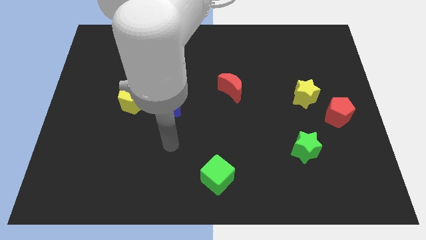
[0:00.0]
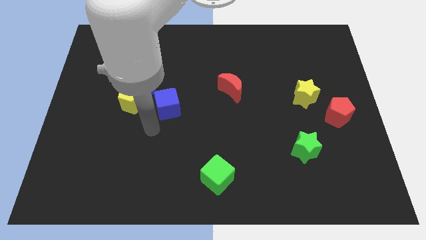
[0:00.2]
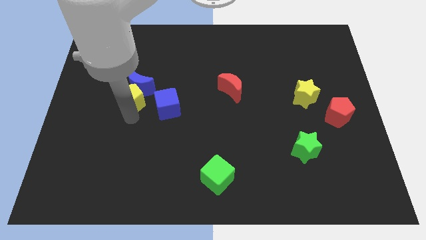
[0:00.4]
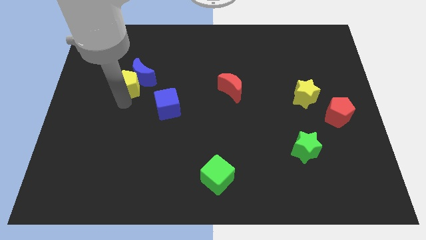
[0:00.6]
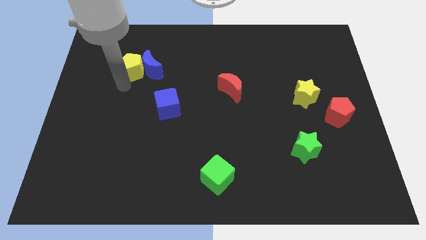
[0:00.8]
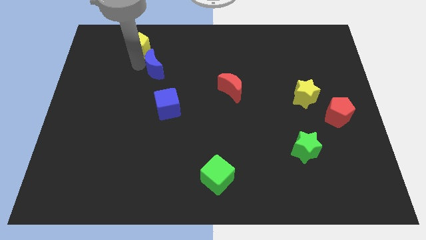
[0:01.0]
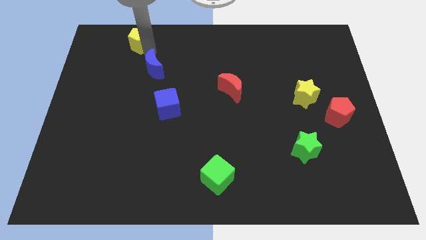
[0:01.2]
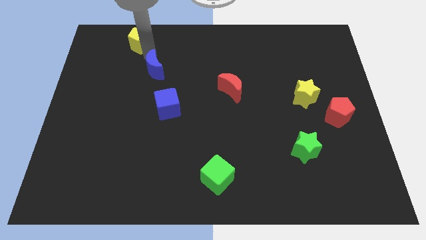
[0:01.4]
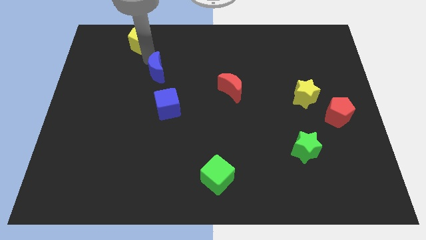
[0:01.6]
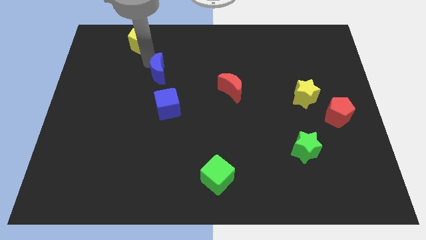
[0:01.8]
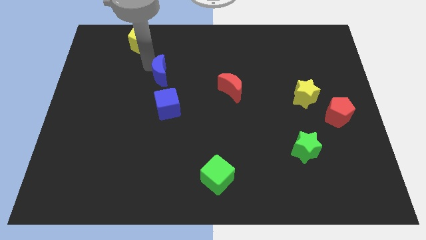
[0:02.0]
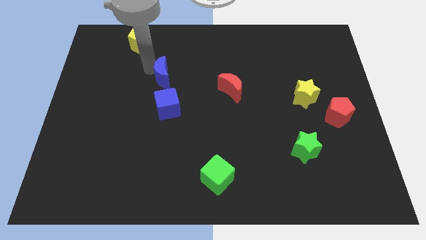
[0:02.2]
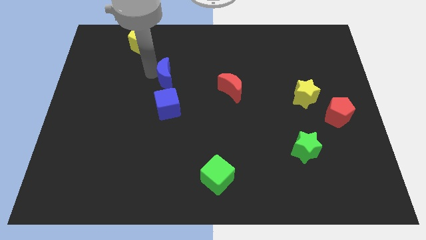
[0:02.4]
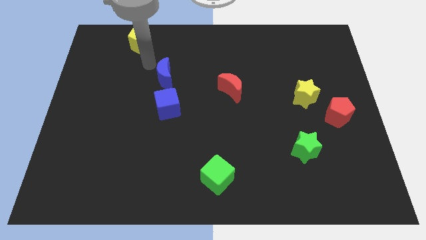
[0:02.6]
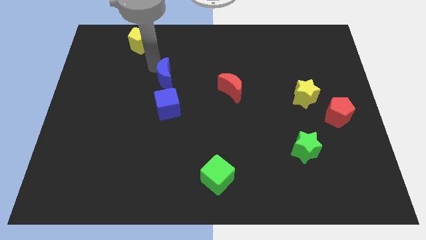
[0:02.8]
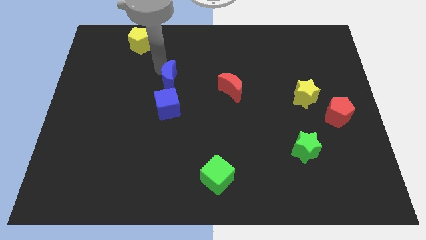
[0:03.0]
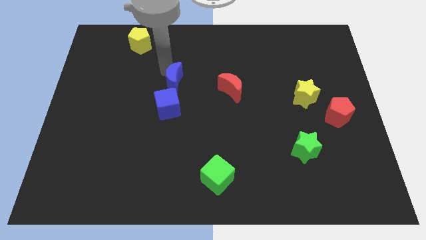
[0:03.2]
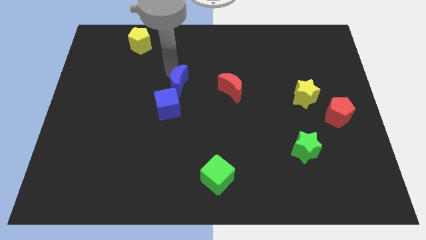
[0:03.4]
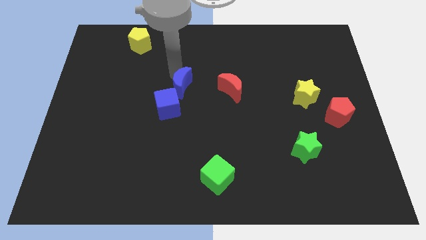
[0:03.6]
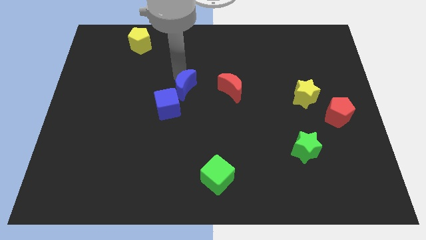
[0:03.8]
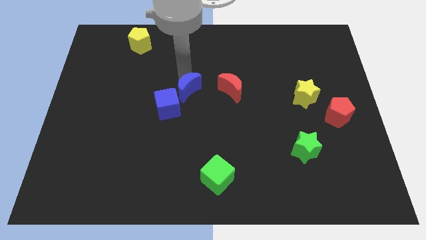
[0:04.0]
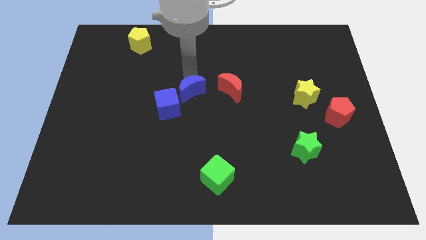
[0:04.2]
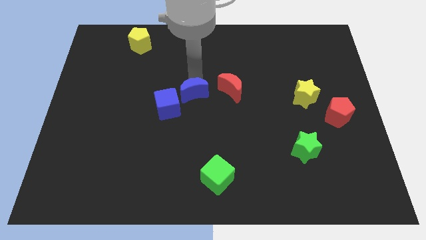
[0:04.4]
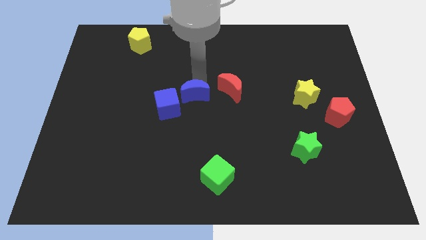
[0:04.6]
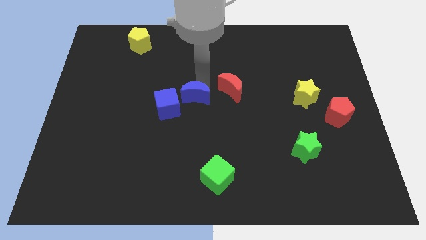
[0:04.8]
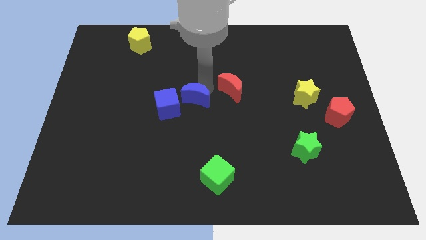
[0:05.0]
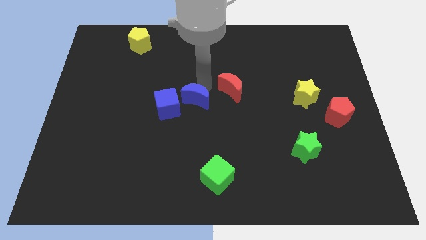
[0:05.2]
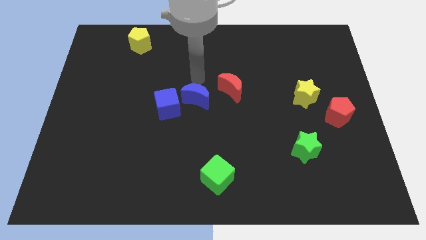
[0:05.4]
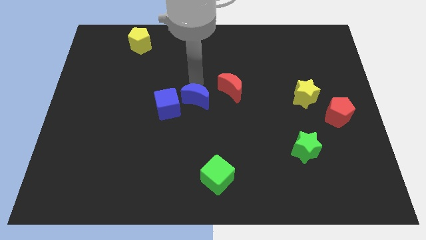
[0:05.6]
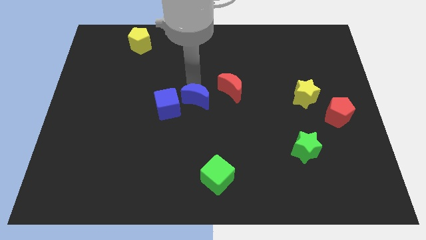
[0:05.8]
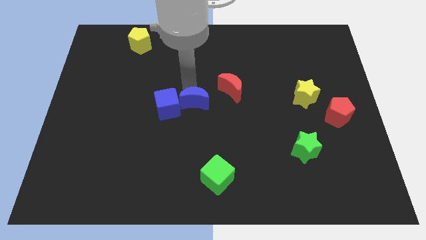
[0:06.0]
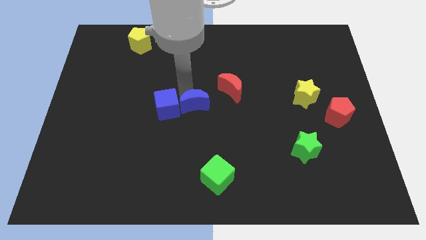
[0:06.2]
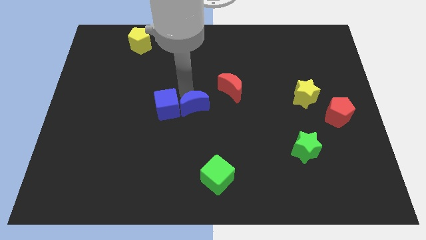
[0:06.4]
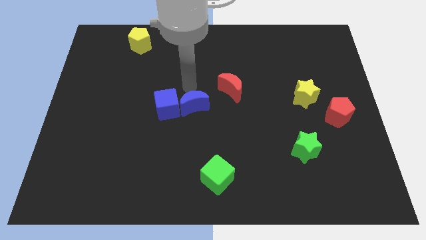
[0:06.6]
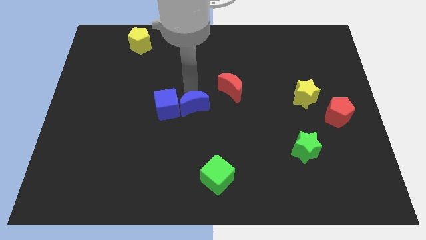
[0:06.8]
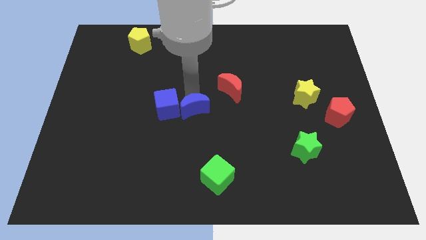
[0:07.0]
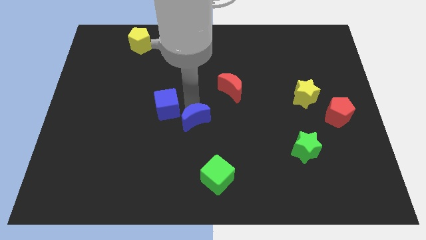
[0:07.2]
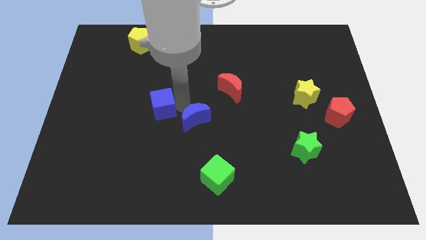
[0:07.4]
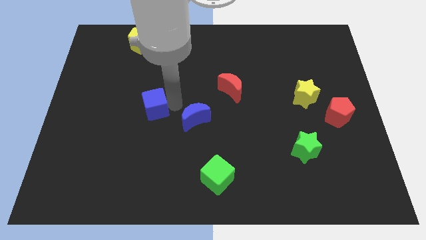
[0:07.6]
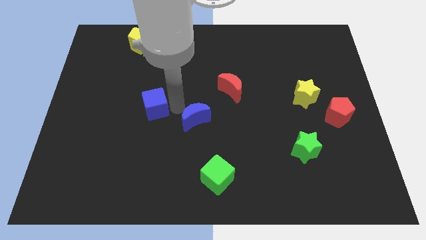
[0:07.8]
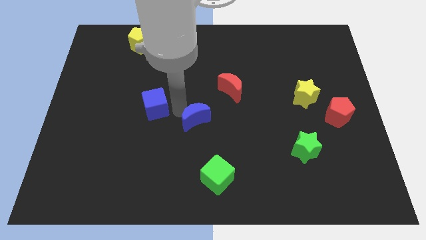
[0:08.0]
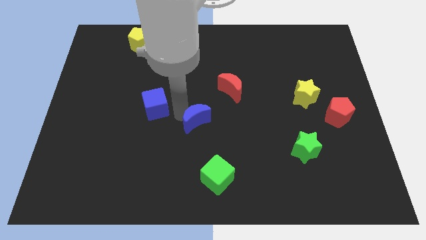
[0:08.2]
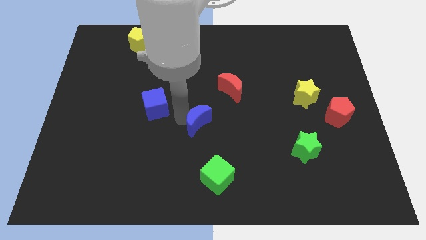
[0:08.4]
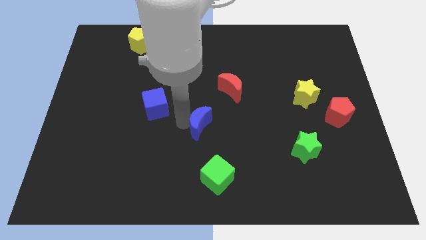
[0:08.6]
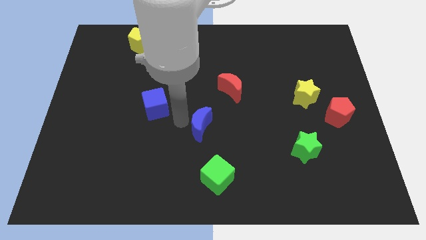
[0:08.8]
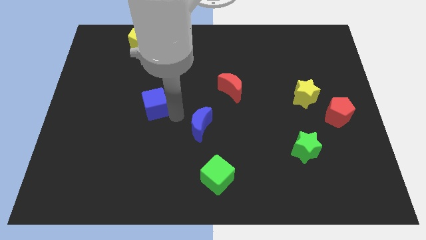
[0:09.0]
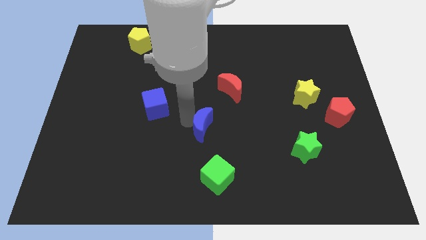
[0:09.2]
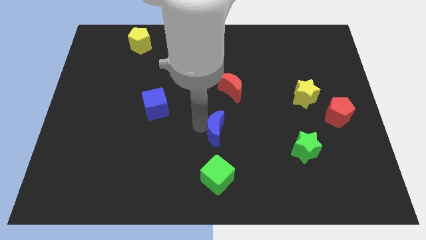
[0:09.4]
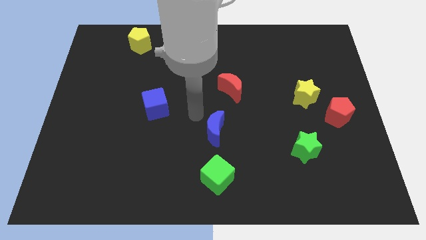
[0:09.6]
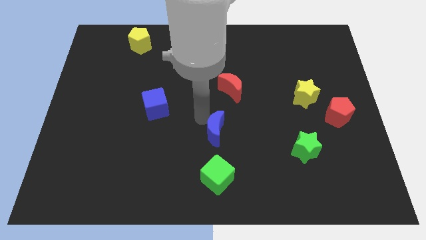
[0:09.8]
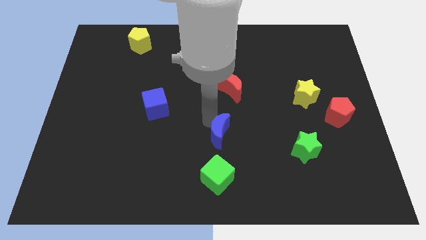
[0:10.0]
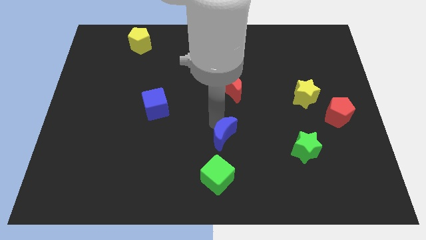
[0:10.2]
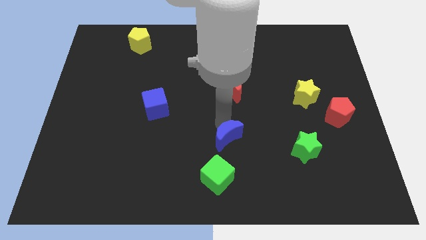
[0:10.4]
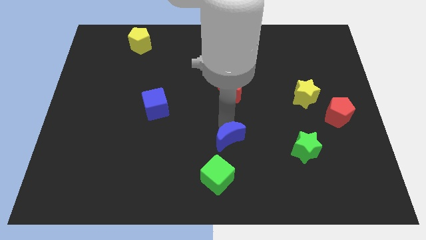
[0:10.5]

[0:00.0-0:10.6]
push the blue moon diagonally up and to the right of the green cube
